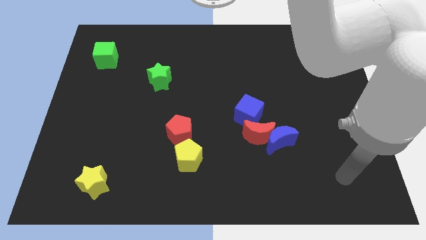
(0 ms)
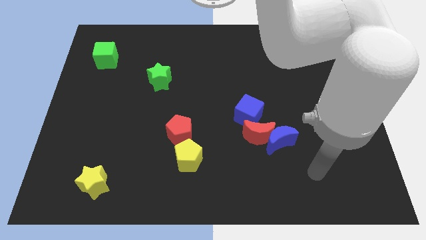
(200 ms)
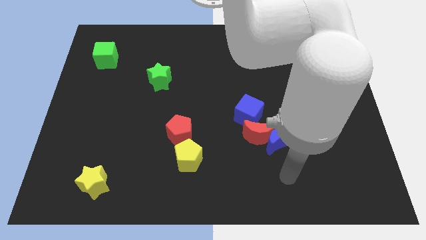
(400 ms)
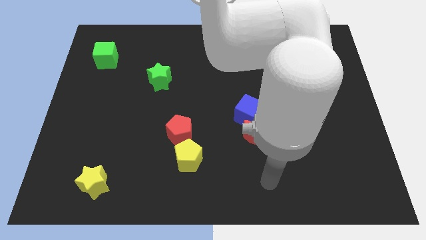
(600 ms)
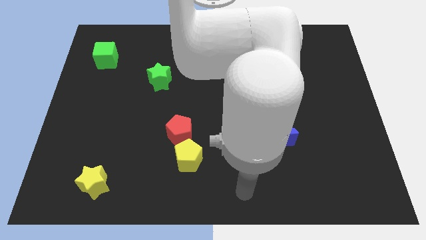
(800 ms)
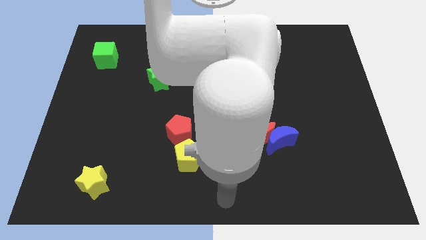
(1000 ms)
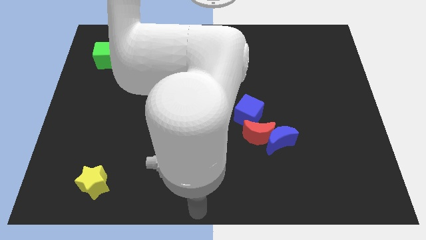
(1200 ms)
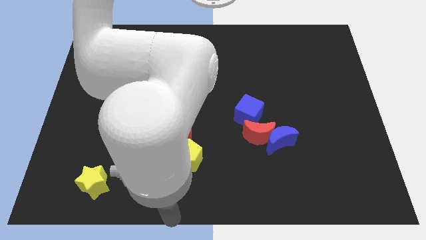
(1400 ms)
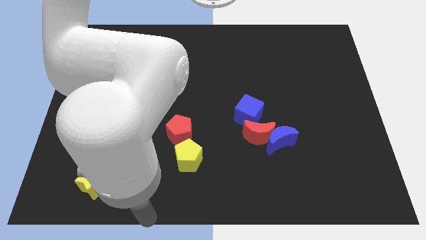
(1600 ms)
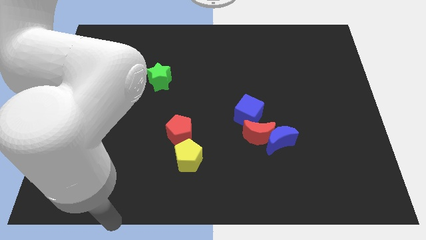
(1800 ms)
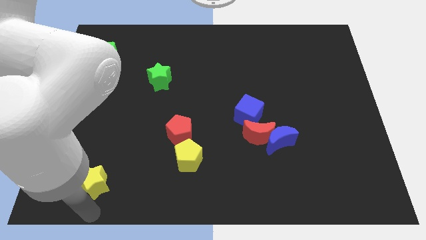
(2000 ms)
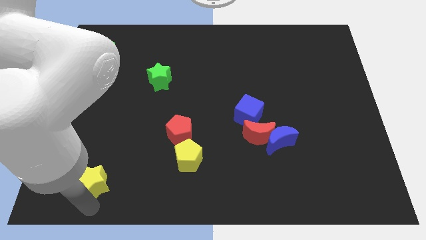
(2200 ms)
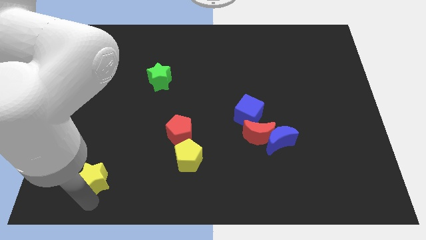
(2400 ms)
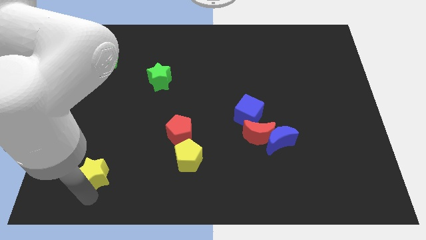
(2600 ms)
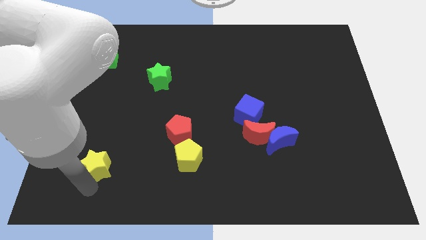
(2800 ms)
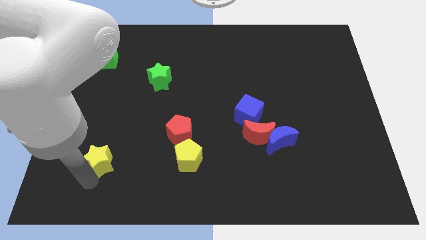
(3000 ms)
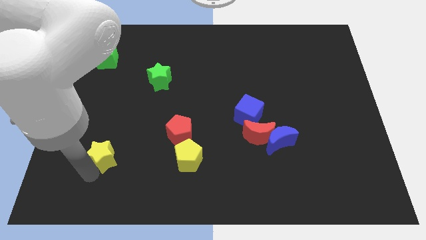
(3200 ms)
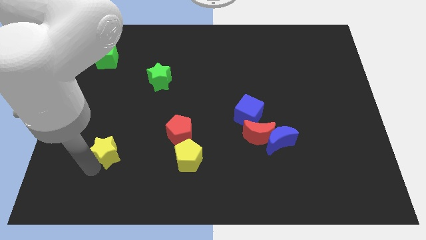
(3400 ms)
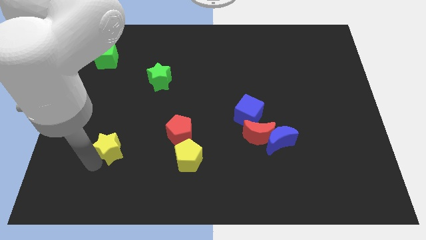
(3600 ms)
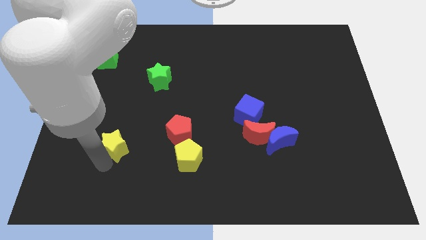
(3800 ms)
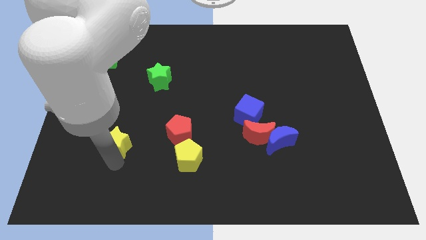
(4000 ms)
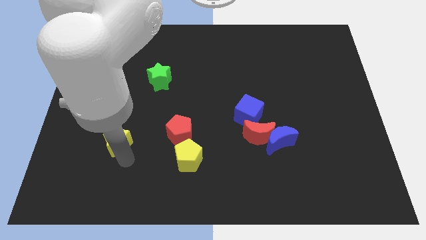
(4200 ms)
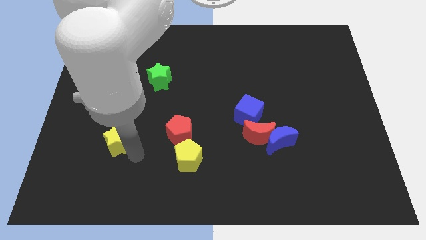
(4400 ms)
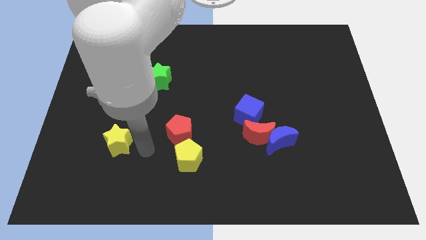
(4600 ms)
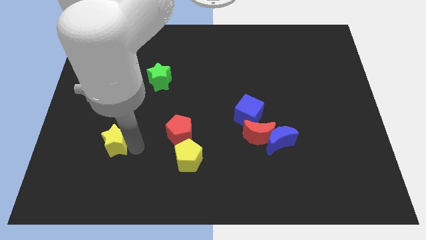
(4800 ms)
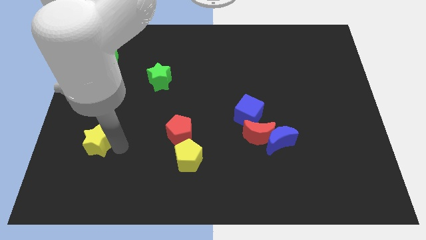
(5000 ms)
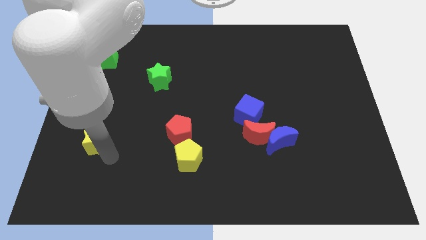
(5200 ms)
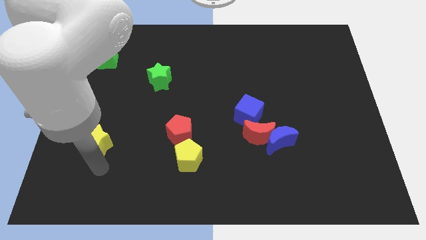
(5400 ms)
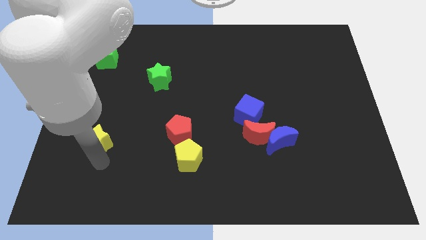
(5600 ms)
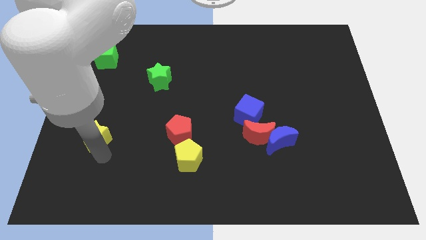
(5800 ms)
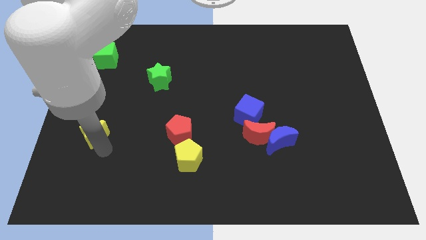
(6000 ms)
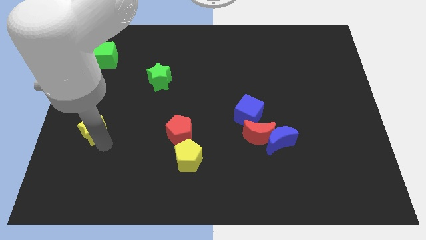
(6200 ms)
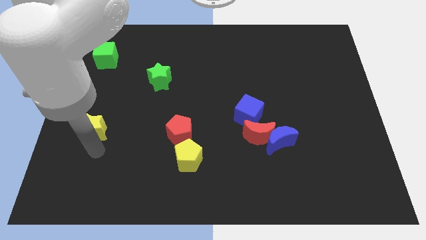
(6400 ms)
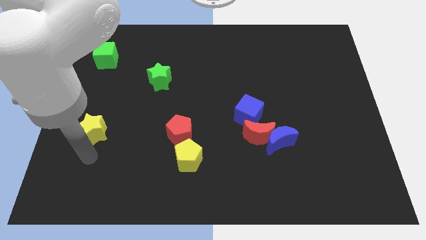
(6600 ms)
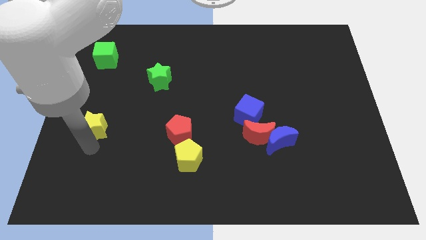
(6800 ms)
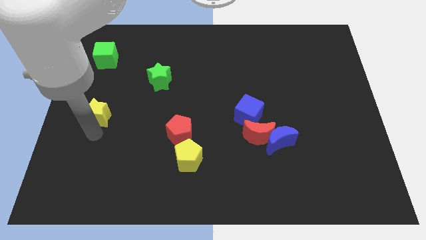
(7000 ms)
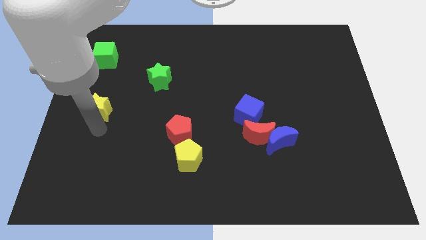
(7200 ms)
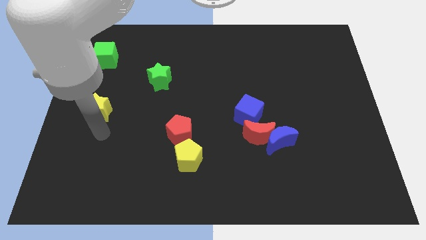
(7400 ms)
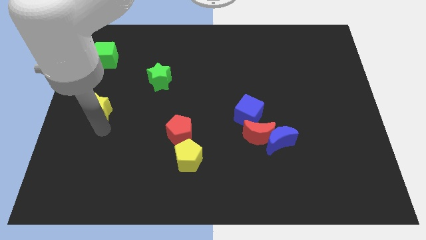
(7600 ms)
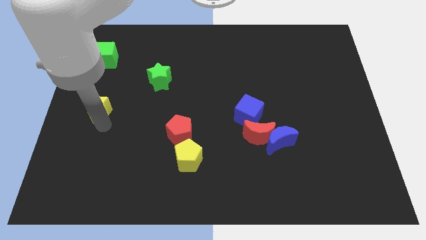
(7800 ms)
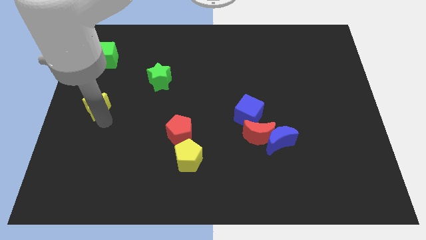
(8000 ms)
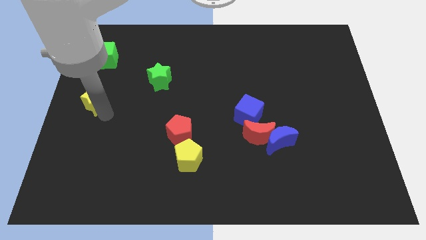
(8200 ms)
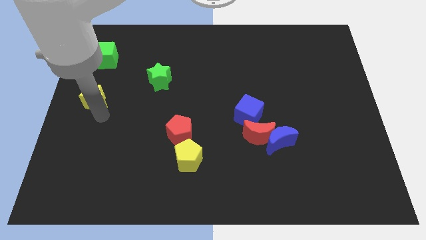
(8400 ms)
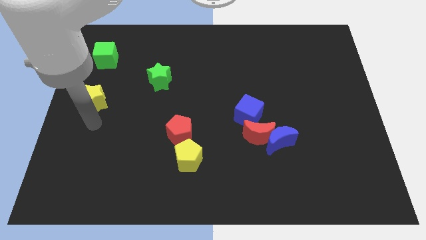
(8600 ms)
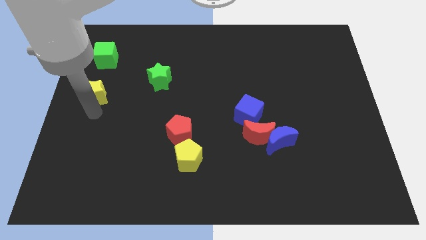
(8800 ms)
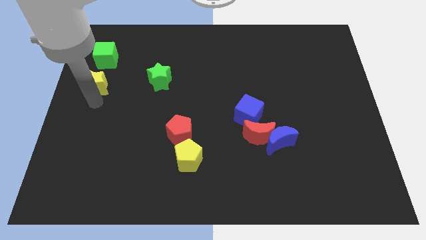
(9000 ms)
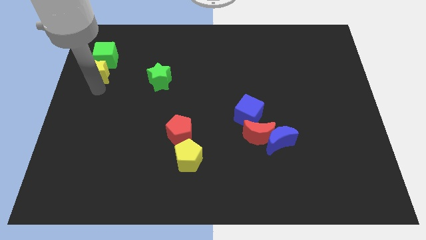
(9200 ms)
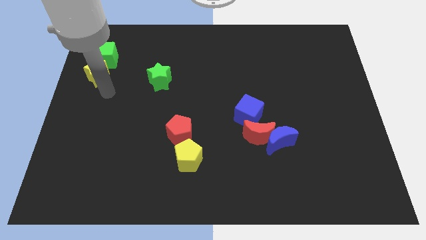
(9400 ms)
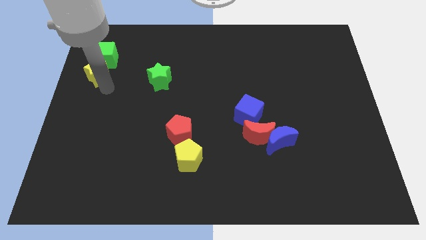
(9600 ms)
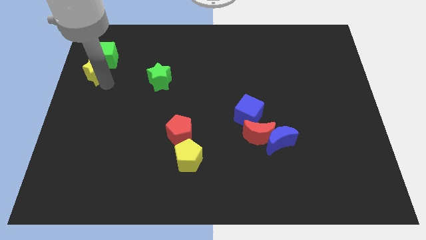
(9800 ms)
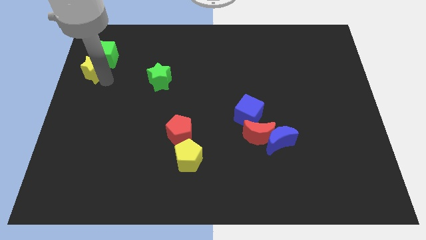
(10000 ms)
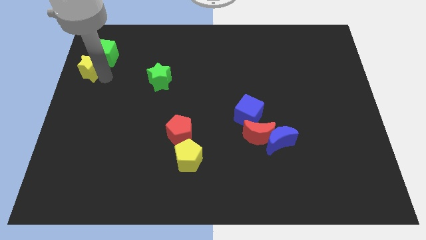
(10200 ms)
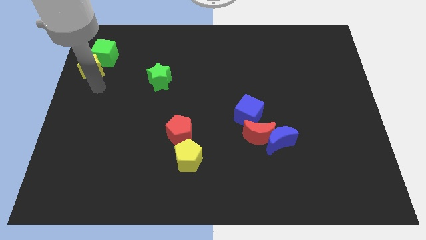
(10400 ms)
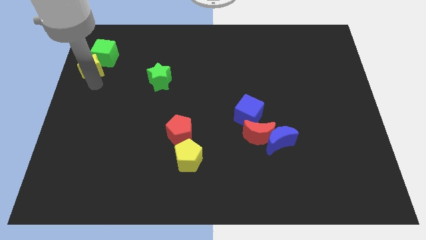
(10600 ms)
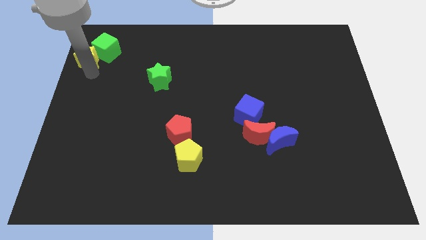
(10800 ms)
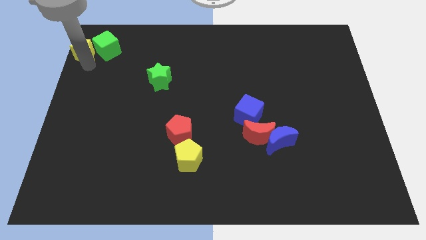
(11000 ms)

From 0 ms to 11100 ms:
push the yellow star to the top left corner

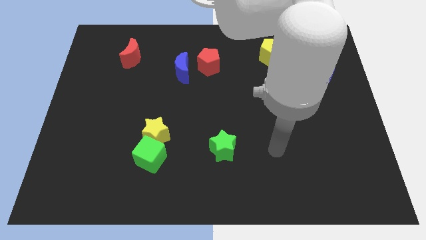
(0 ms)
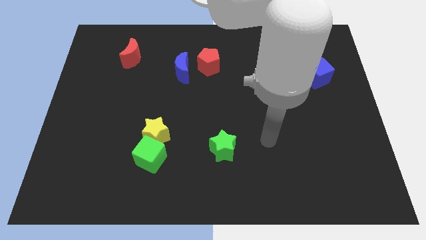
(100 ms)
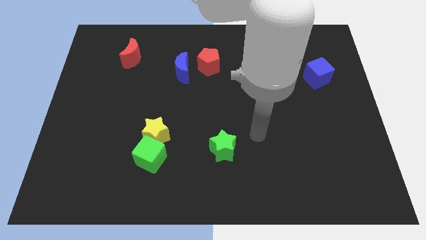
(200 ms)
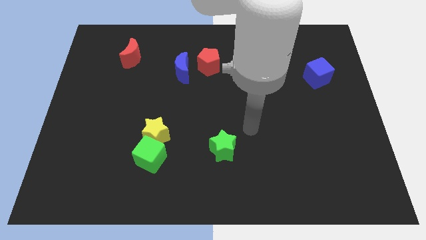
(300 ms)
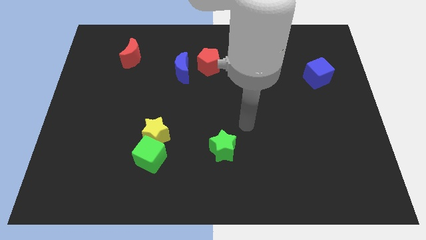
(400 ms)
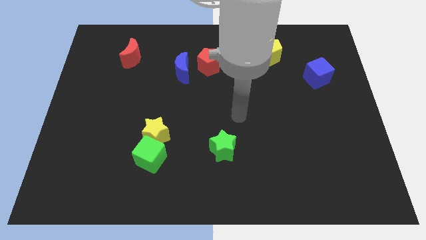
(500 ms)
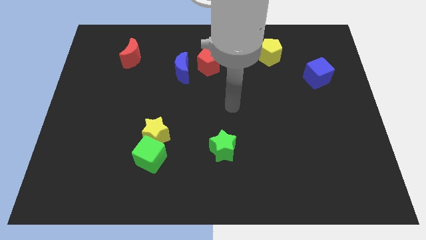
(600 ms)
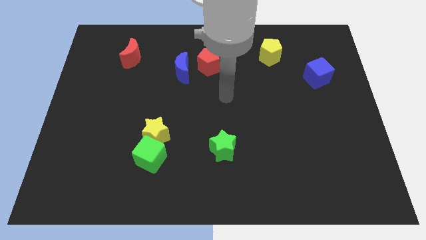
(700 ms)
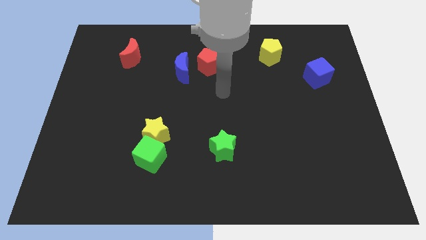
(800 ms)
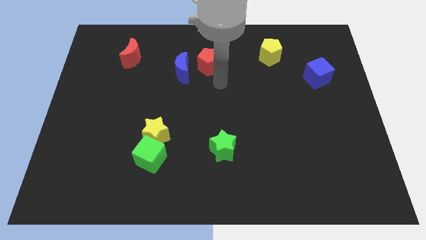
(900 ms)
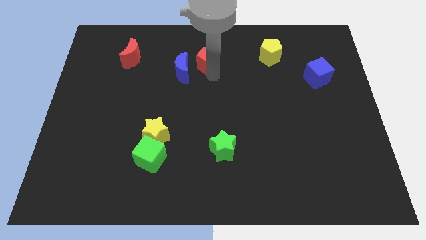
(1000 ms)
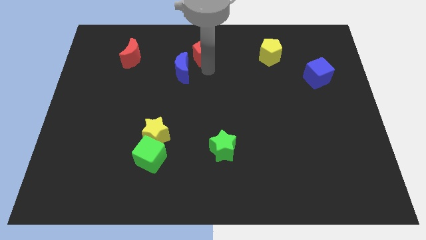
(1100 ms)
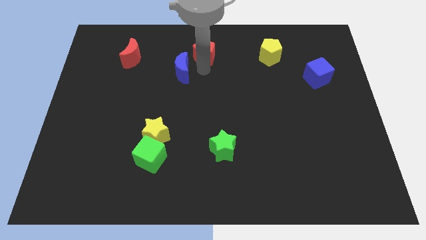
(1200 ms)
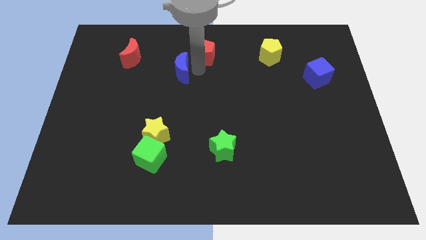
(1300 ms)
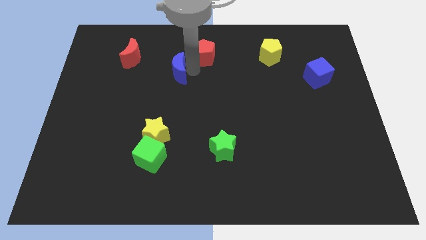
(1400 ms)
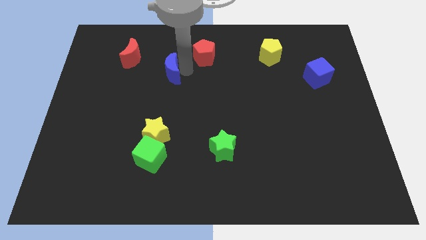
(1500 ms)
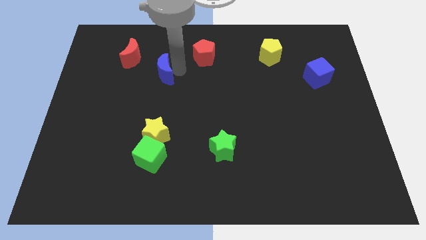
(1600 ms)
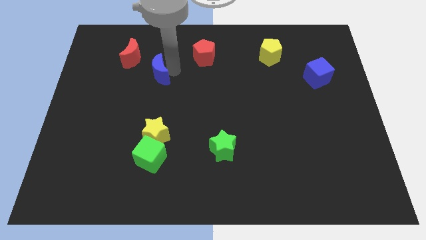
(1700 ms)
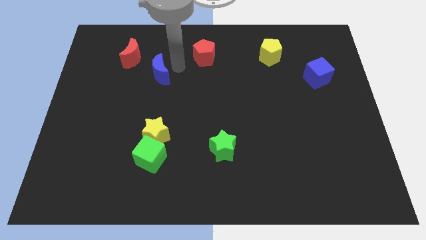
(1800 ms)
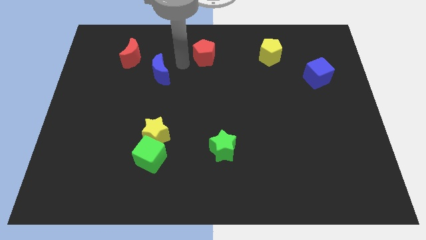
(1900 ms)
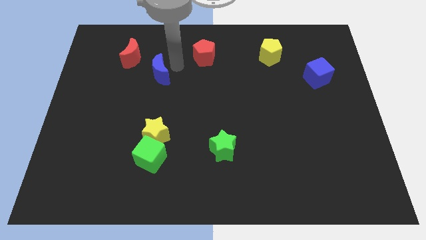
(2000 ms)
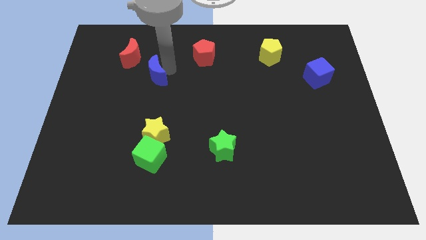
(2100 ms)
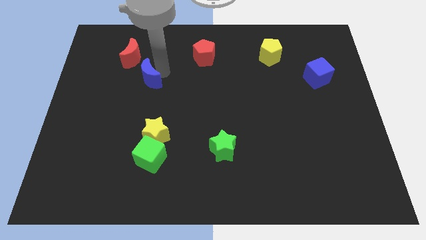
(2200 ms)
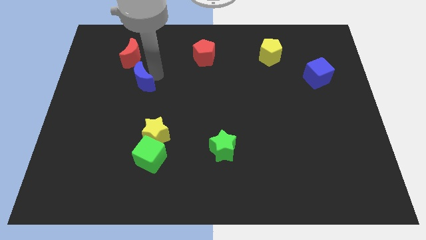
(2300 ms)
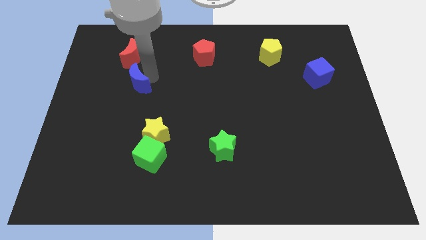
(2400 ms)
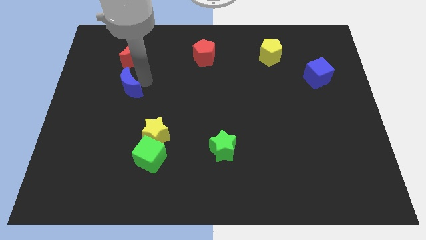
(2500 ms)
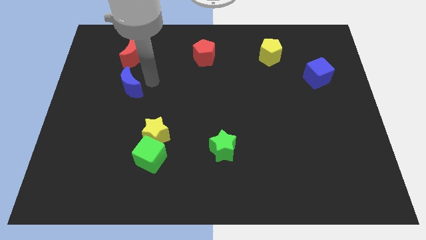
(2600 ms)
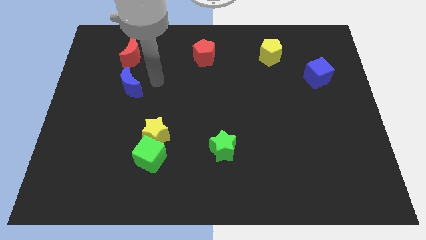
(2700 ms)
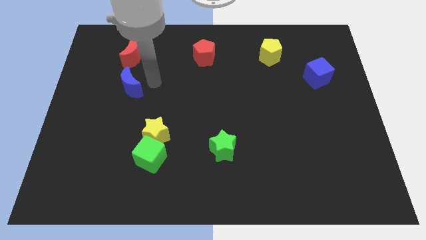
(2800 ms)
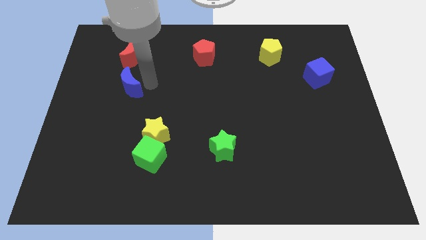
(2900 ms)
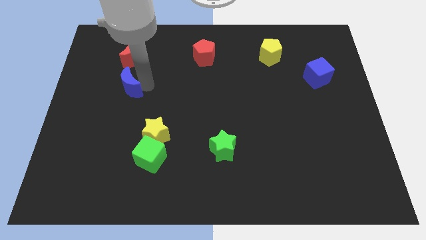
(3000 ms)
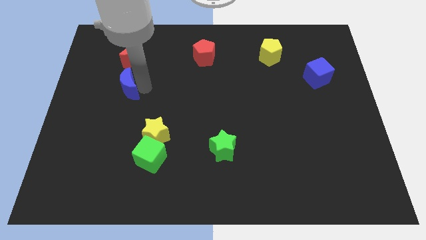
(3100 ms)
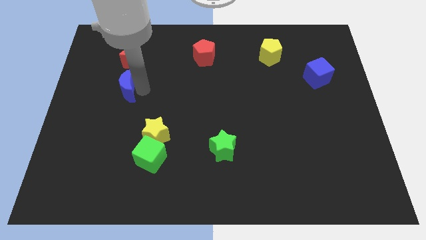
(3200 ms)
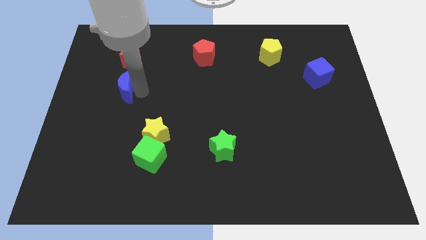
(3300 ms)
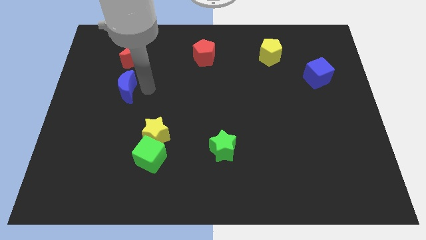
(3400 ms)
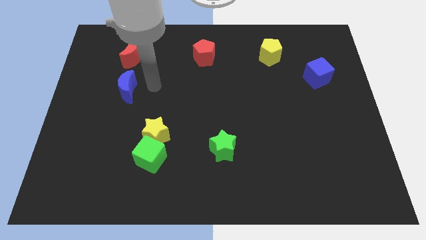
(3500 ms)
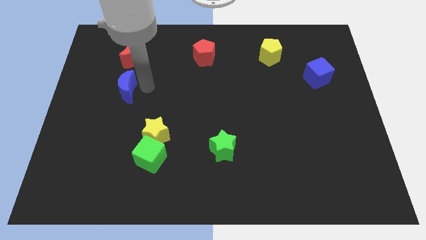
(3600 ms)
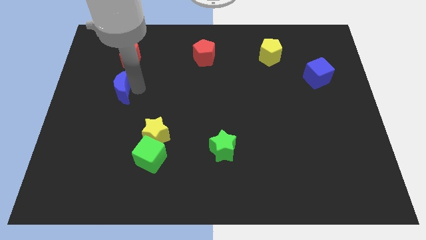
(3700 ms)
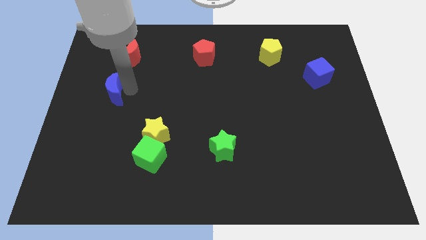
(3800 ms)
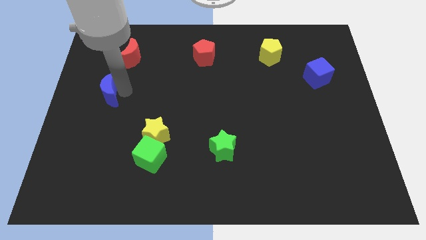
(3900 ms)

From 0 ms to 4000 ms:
slide the blue moon to the center left
